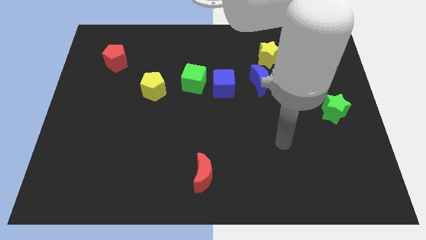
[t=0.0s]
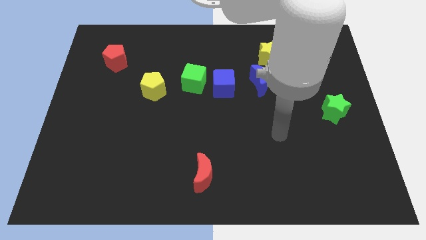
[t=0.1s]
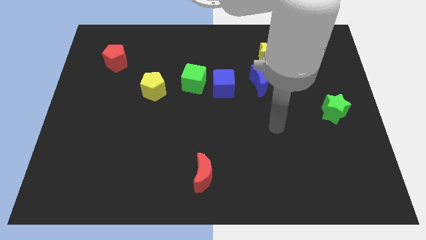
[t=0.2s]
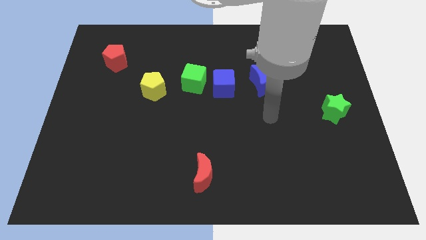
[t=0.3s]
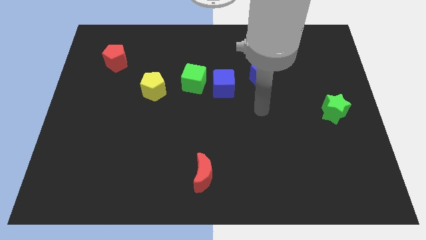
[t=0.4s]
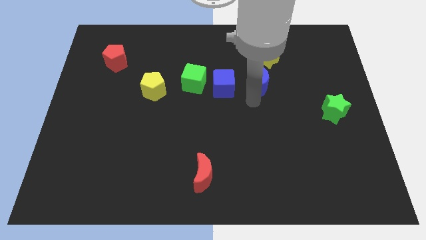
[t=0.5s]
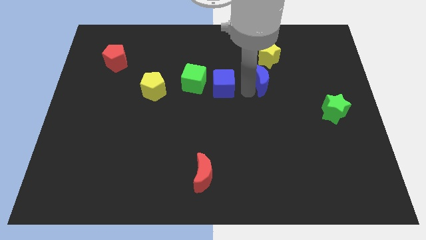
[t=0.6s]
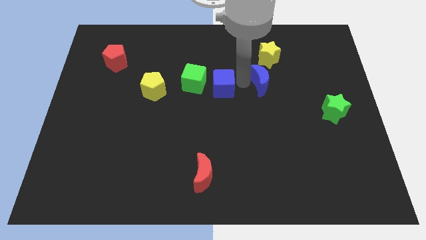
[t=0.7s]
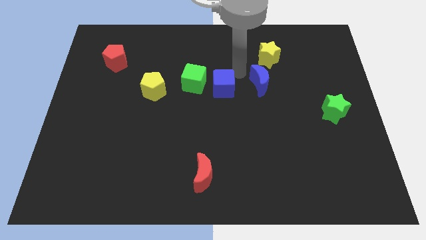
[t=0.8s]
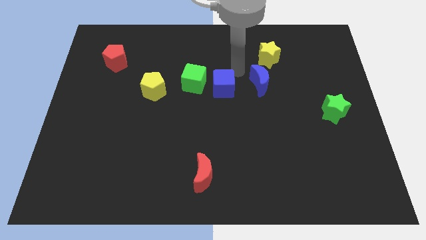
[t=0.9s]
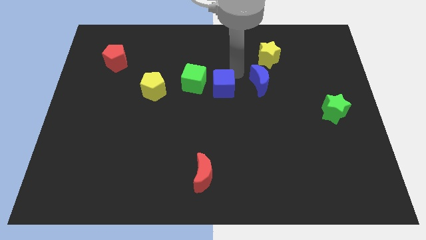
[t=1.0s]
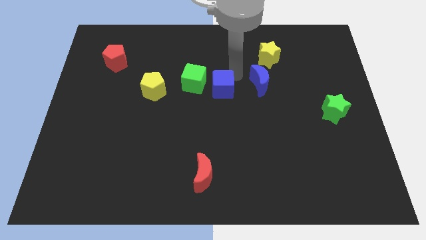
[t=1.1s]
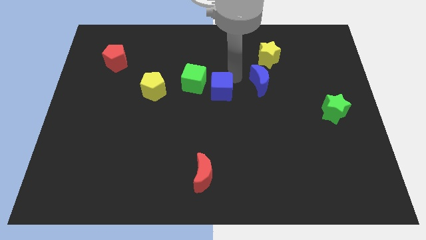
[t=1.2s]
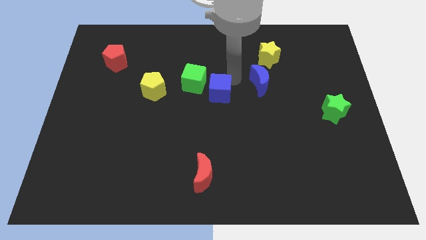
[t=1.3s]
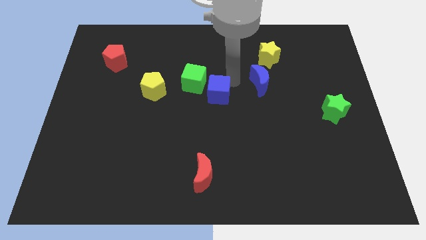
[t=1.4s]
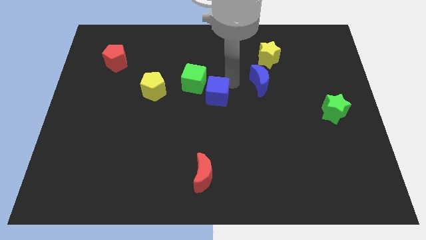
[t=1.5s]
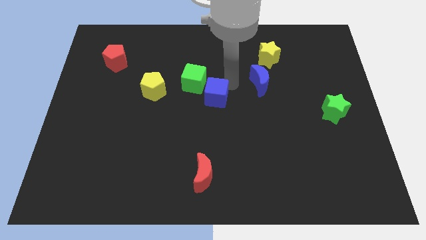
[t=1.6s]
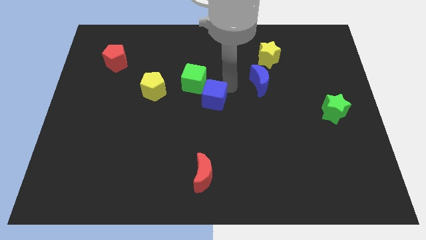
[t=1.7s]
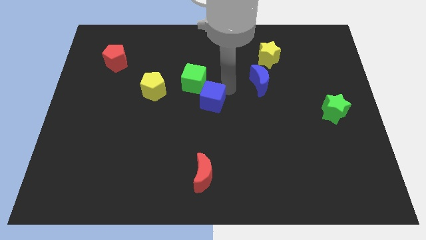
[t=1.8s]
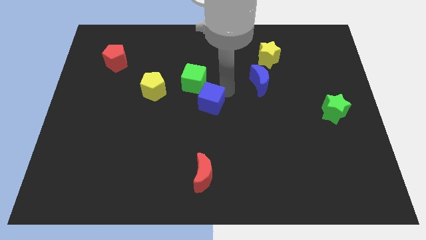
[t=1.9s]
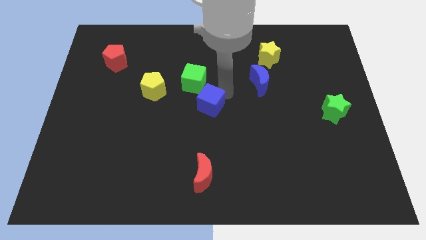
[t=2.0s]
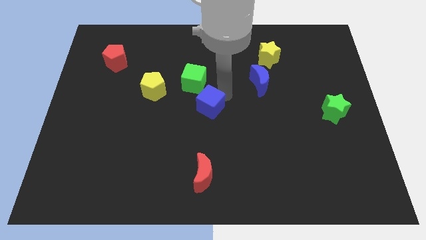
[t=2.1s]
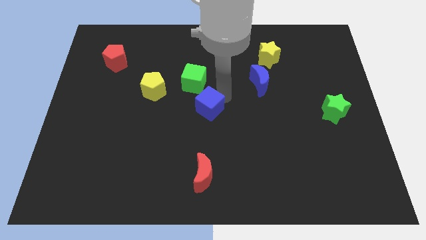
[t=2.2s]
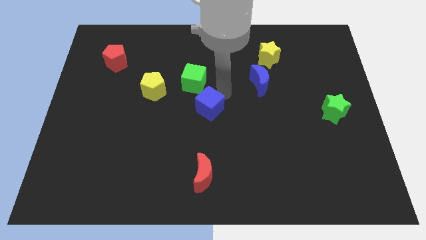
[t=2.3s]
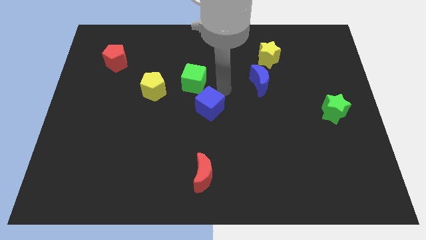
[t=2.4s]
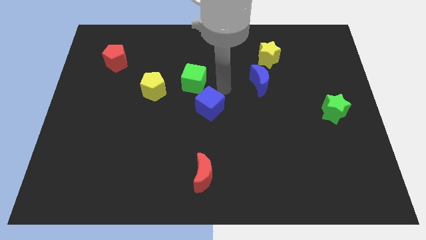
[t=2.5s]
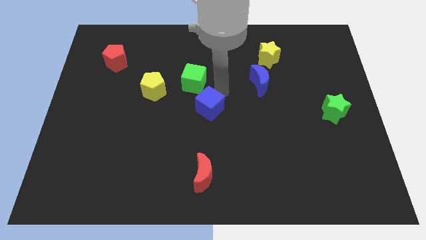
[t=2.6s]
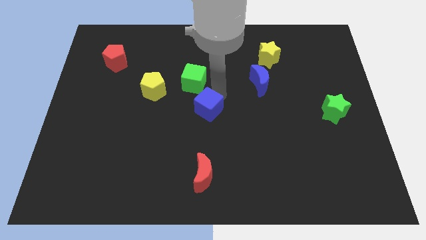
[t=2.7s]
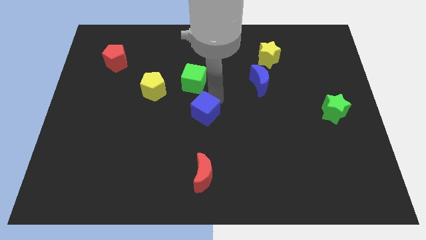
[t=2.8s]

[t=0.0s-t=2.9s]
pull the blue cube apart from the green cube and blue moon

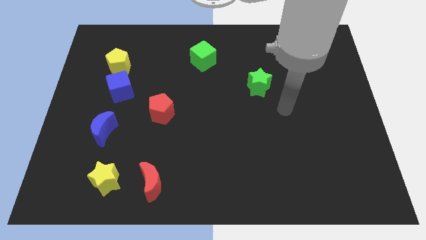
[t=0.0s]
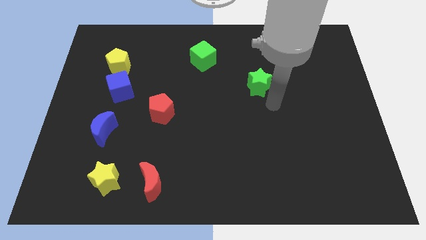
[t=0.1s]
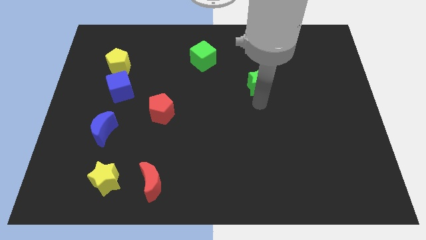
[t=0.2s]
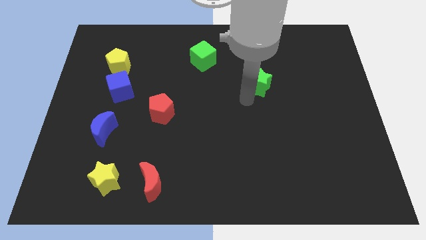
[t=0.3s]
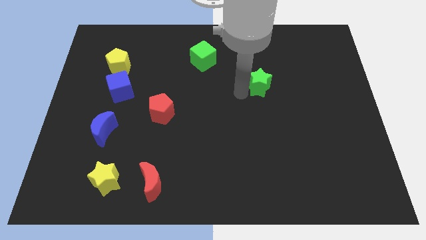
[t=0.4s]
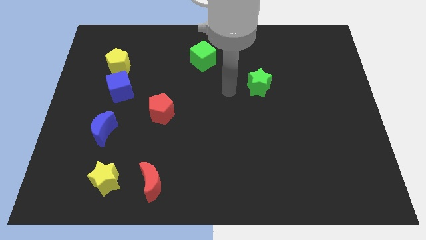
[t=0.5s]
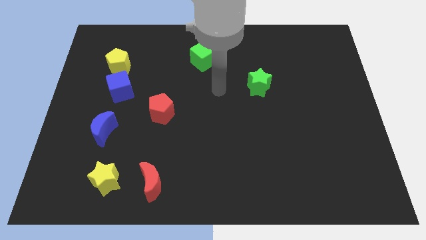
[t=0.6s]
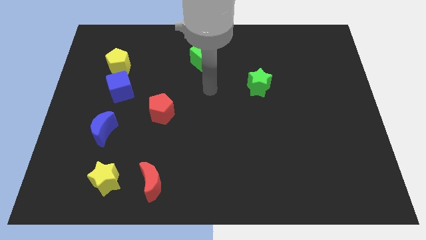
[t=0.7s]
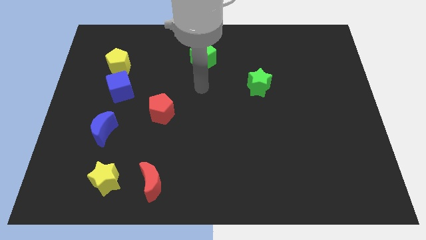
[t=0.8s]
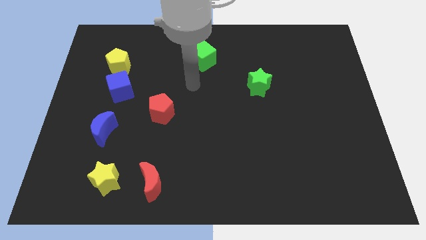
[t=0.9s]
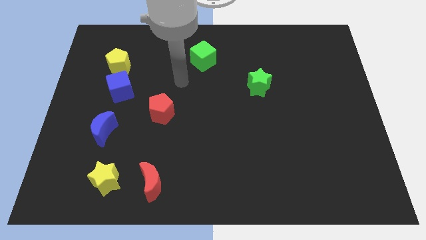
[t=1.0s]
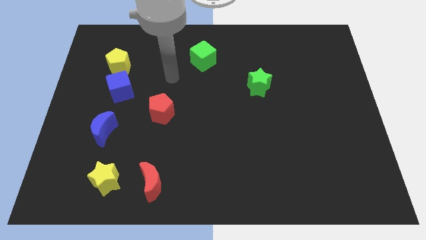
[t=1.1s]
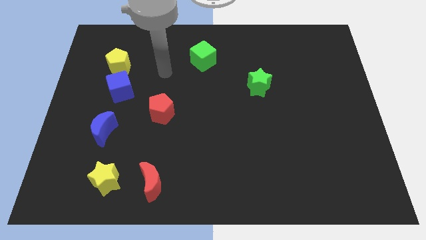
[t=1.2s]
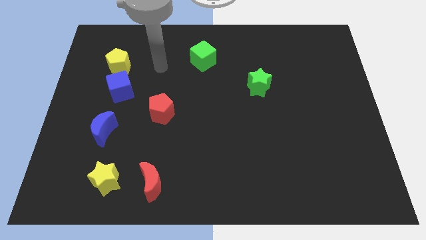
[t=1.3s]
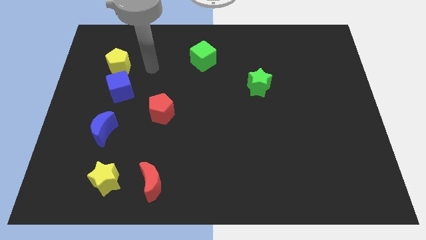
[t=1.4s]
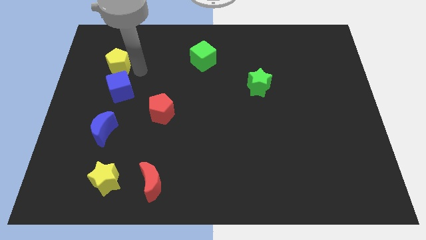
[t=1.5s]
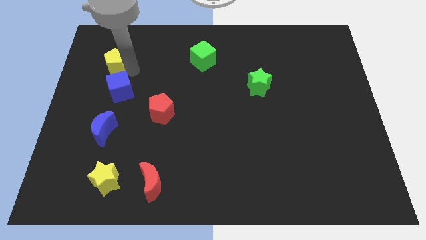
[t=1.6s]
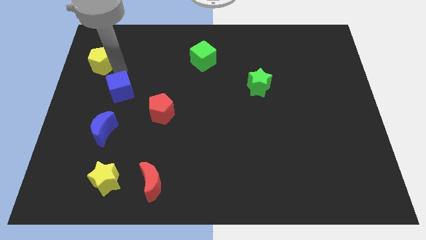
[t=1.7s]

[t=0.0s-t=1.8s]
move the blue cube away from the yellow pentagon

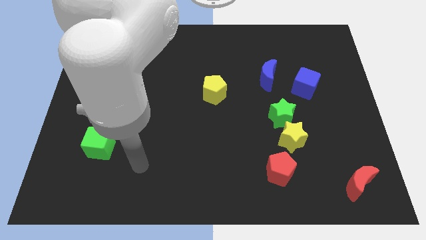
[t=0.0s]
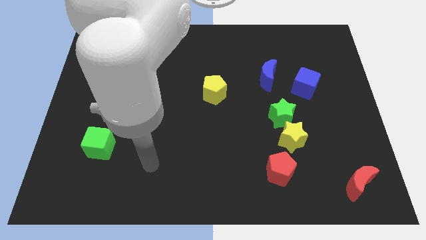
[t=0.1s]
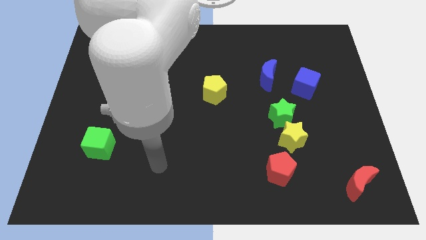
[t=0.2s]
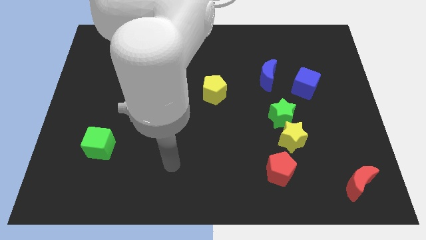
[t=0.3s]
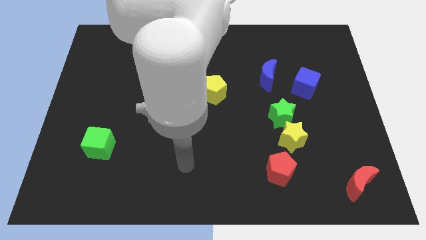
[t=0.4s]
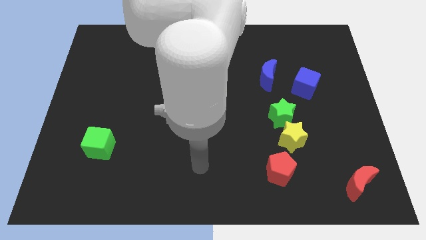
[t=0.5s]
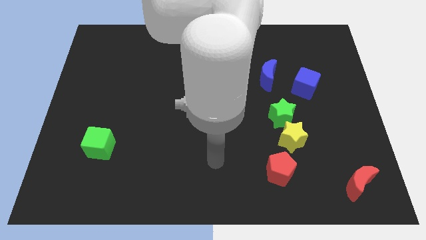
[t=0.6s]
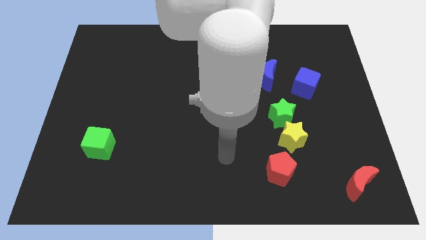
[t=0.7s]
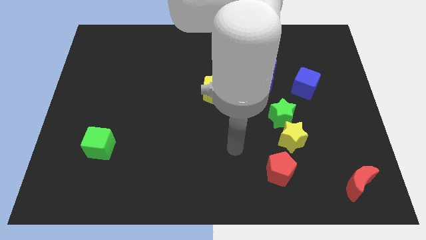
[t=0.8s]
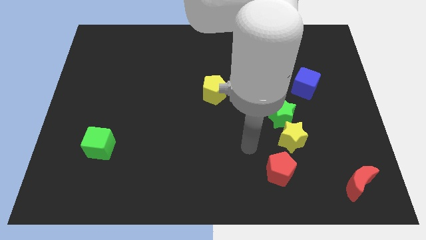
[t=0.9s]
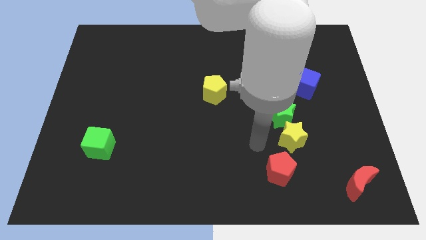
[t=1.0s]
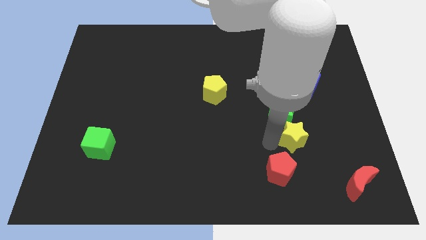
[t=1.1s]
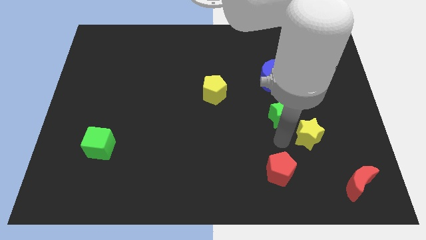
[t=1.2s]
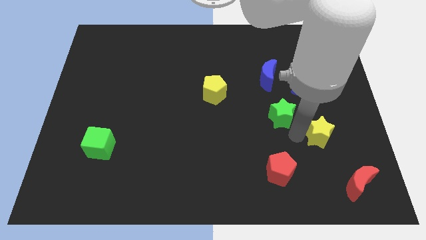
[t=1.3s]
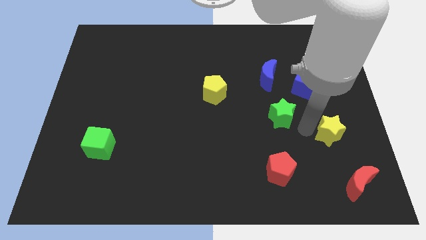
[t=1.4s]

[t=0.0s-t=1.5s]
move the green star away from the yellow star

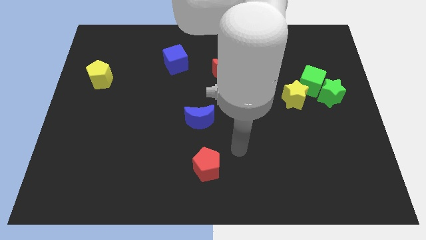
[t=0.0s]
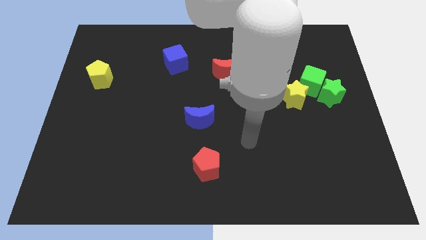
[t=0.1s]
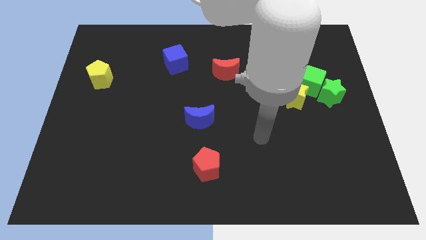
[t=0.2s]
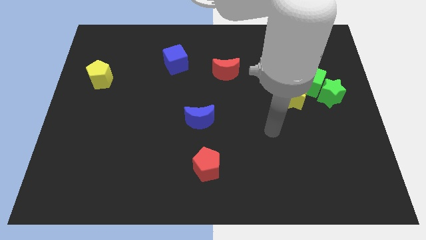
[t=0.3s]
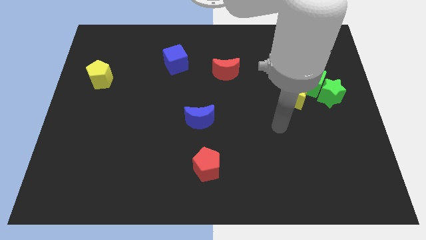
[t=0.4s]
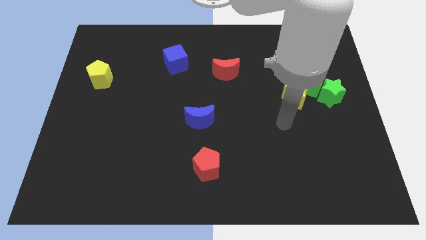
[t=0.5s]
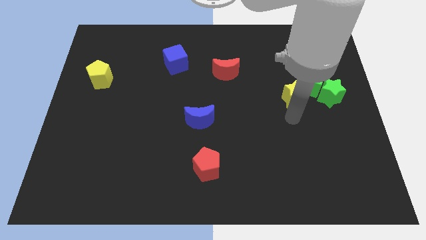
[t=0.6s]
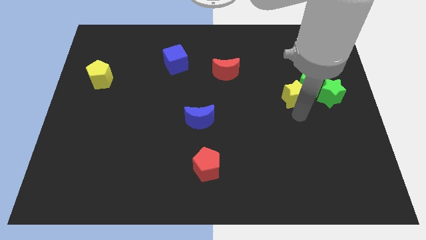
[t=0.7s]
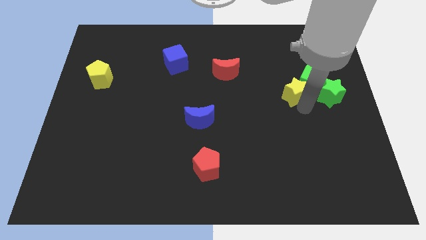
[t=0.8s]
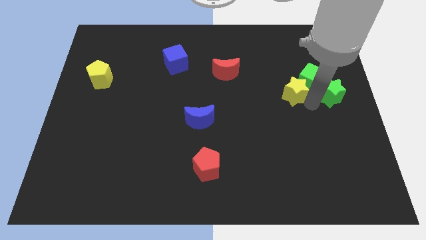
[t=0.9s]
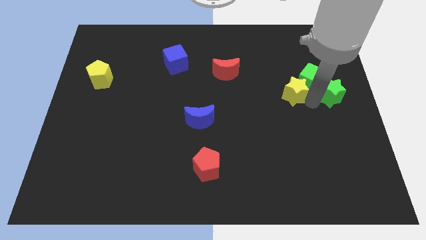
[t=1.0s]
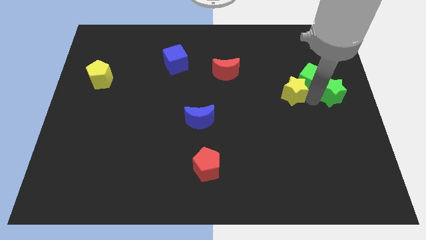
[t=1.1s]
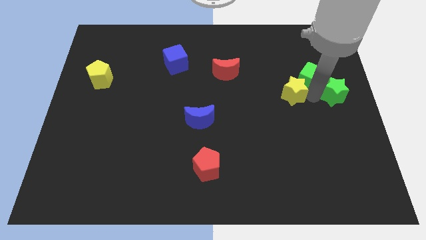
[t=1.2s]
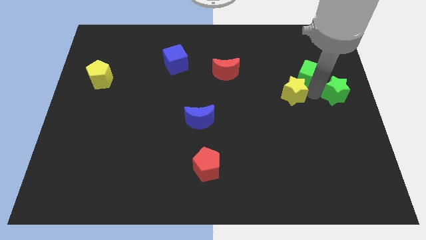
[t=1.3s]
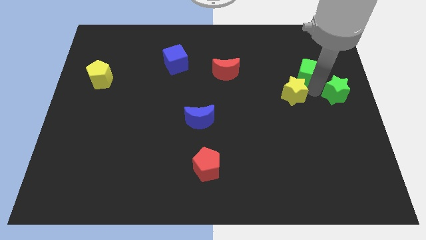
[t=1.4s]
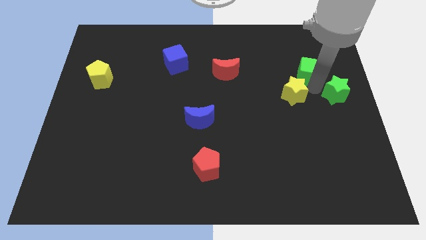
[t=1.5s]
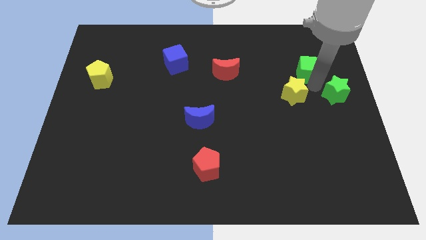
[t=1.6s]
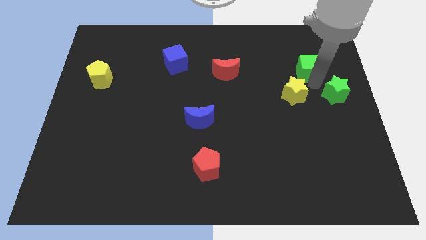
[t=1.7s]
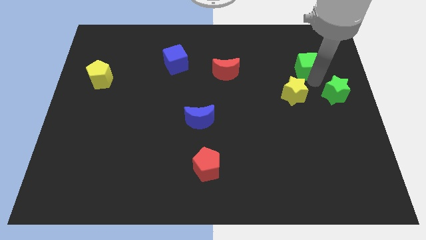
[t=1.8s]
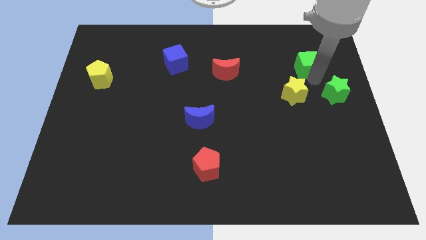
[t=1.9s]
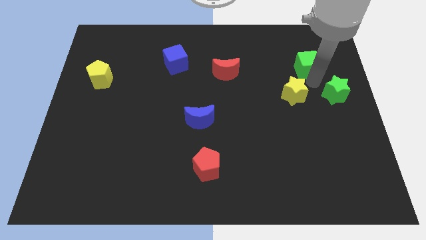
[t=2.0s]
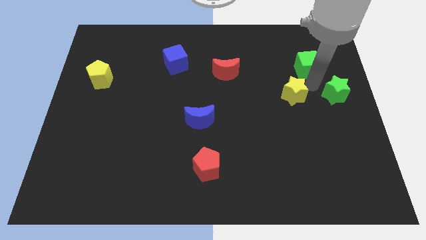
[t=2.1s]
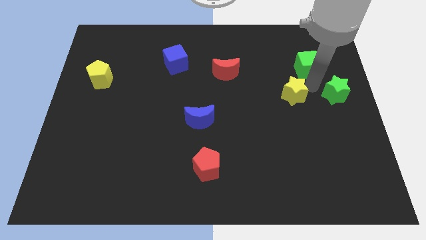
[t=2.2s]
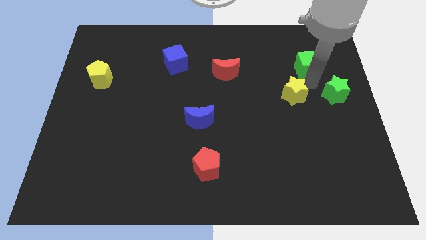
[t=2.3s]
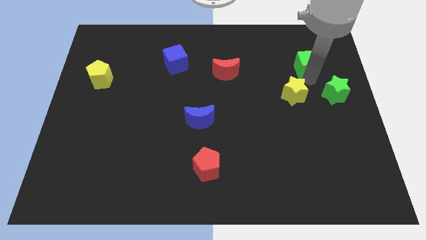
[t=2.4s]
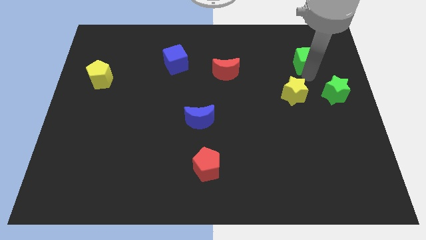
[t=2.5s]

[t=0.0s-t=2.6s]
separate the green cube from the green star and yellow star

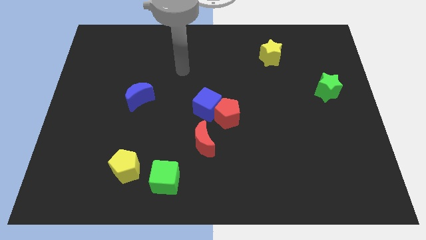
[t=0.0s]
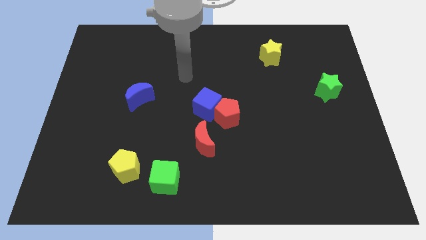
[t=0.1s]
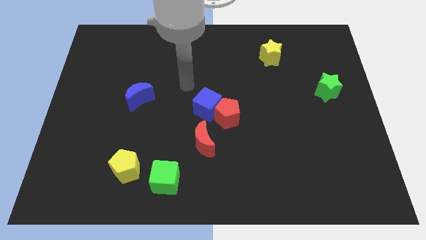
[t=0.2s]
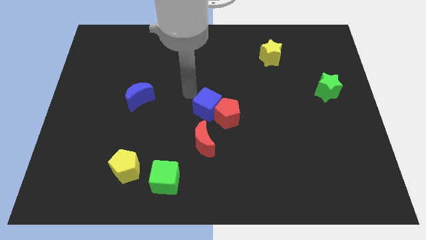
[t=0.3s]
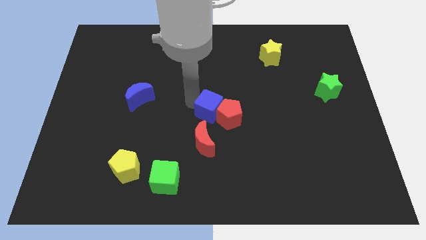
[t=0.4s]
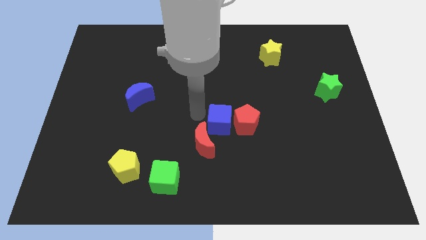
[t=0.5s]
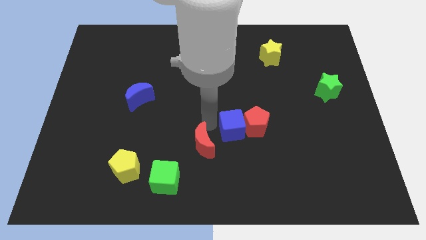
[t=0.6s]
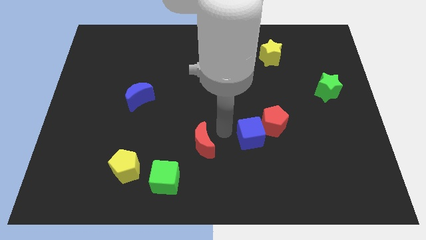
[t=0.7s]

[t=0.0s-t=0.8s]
separate the red pentagon from the blue cube and red moon
